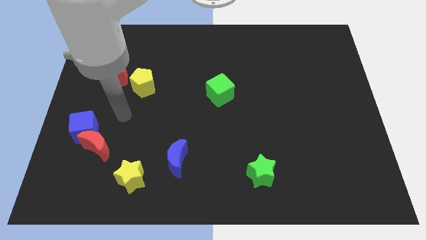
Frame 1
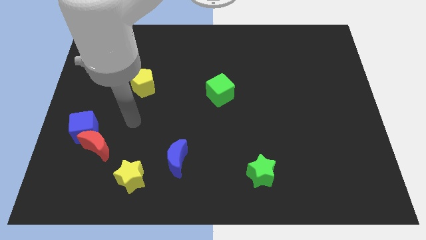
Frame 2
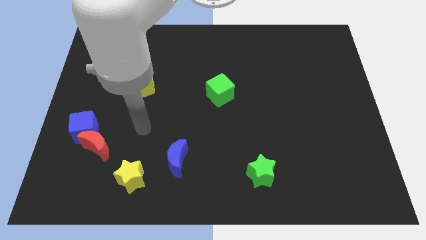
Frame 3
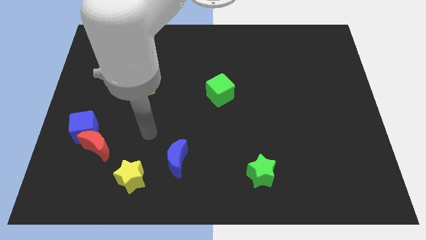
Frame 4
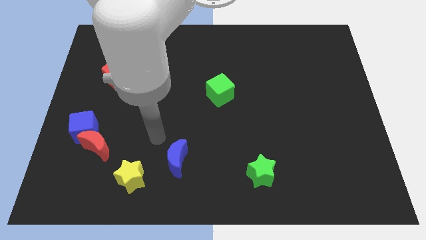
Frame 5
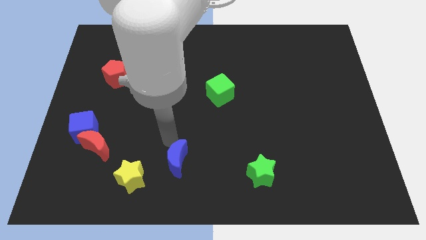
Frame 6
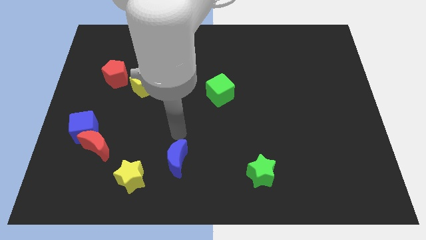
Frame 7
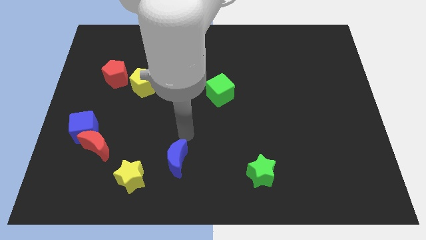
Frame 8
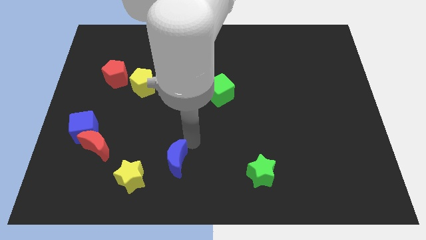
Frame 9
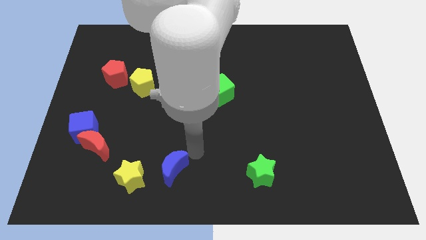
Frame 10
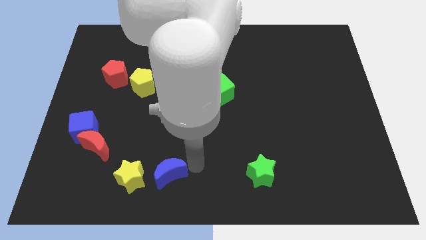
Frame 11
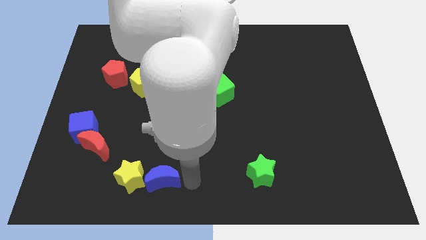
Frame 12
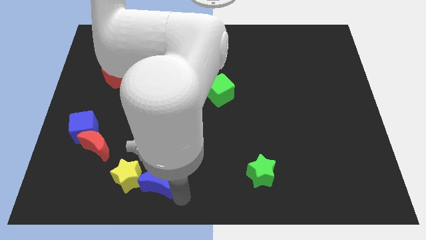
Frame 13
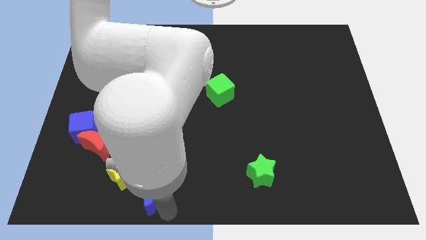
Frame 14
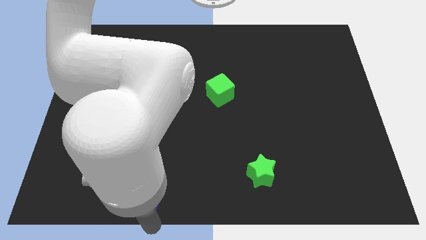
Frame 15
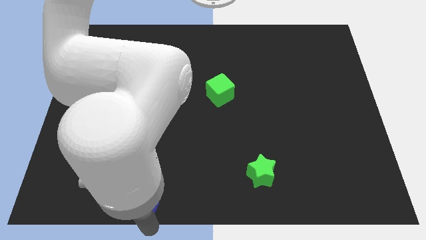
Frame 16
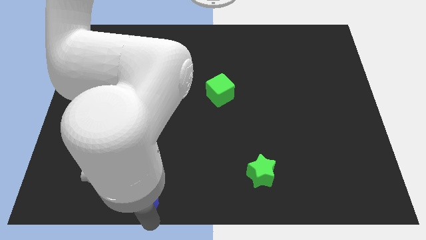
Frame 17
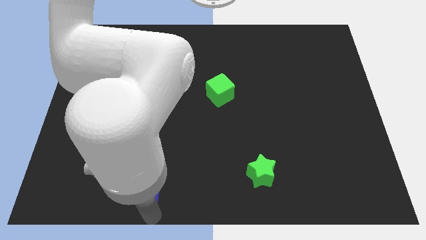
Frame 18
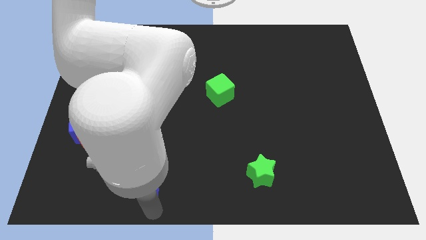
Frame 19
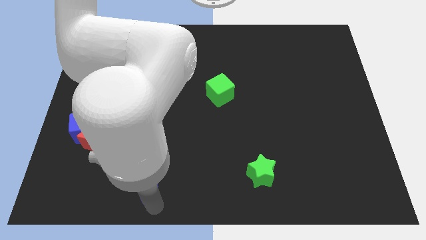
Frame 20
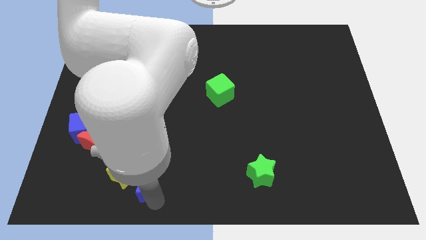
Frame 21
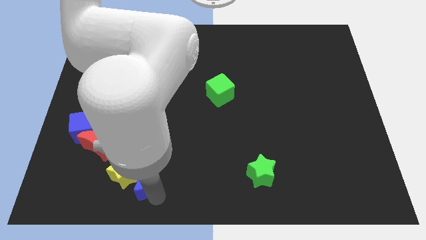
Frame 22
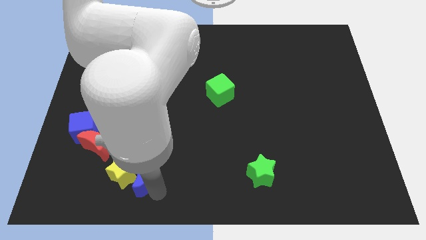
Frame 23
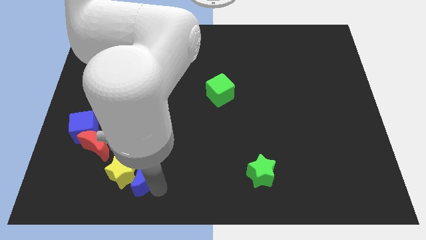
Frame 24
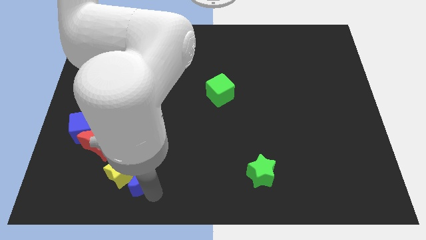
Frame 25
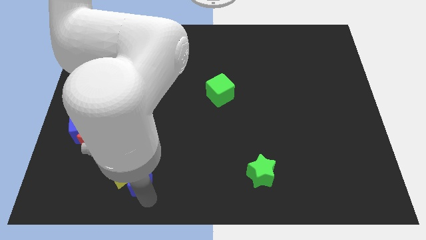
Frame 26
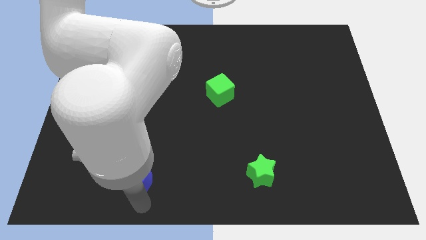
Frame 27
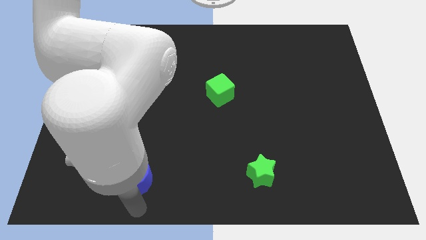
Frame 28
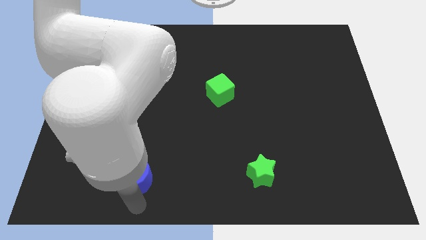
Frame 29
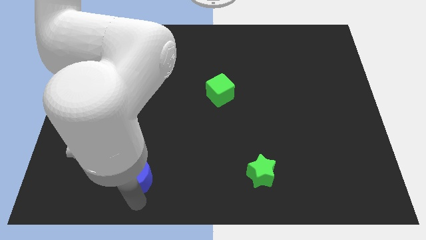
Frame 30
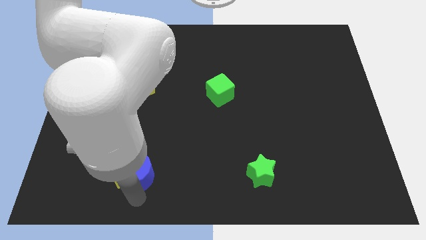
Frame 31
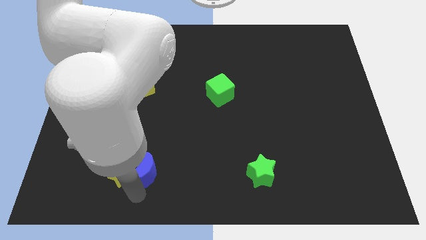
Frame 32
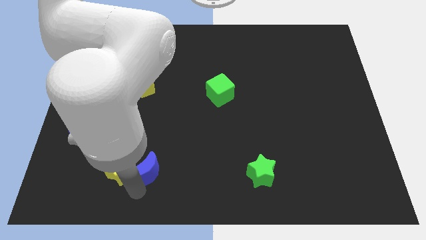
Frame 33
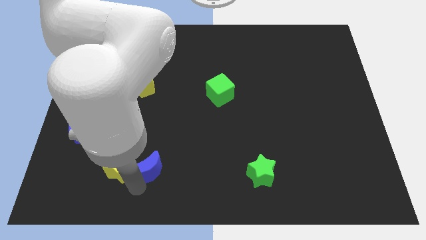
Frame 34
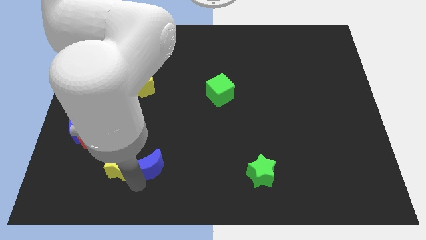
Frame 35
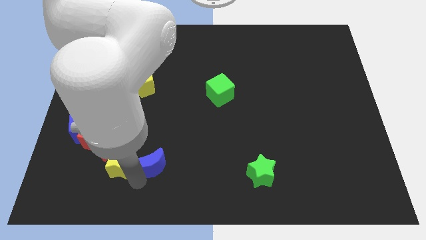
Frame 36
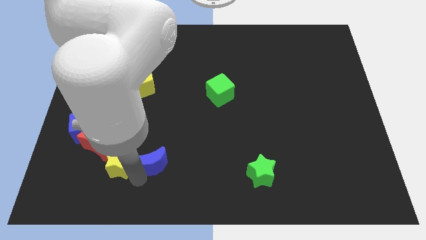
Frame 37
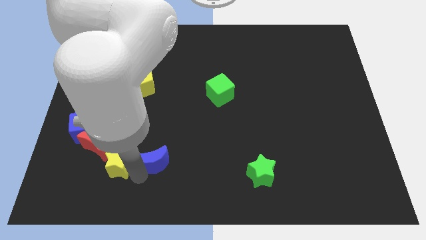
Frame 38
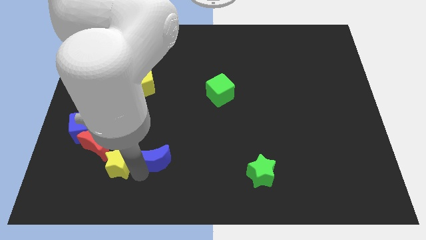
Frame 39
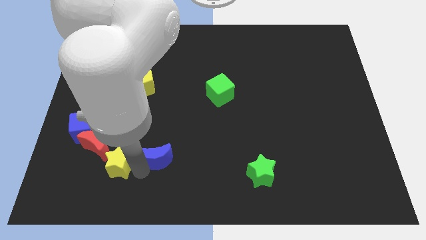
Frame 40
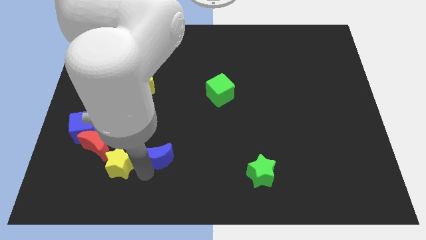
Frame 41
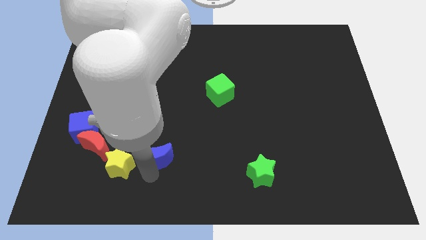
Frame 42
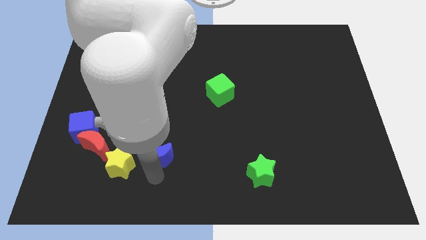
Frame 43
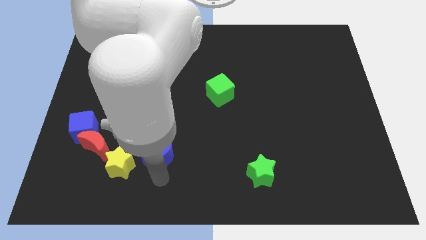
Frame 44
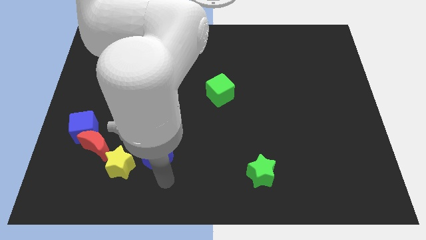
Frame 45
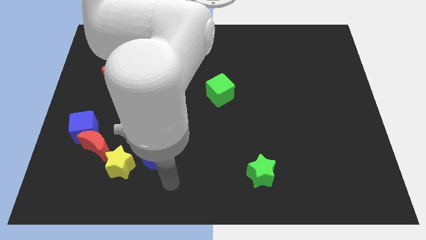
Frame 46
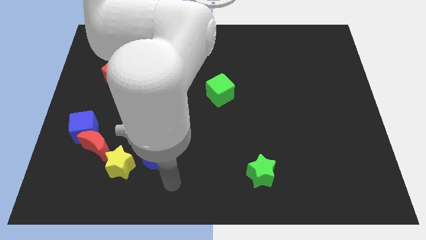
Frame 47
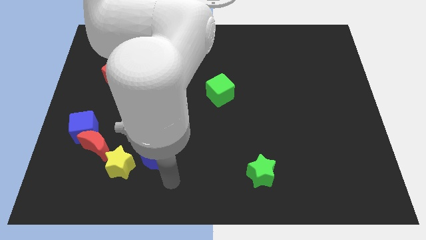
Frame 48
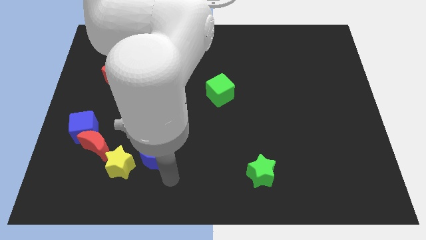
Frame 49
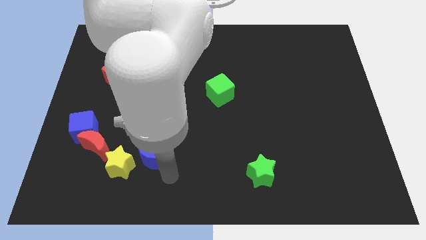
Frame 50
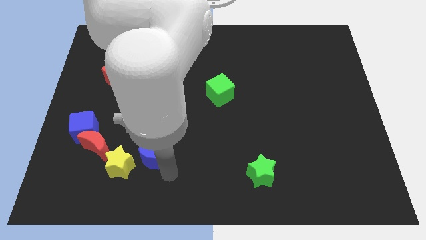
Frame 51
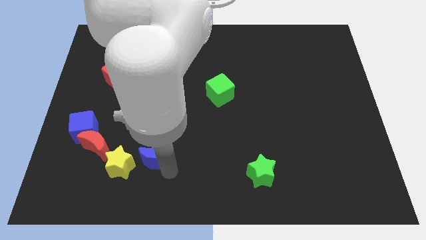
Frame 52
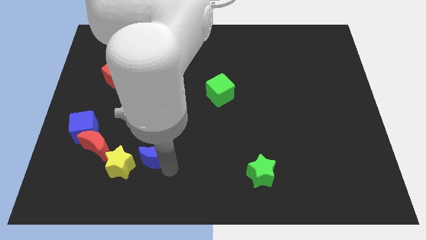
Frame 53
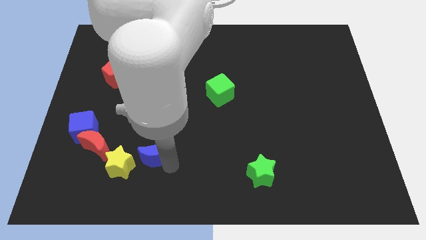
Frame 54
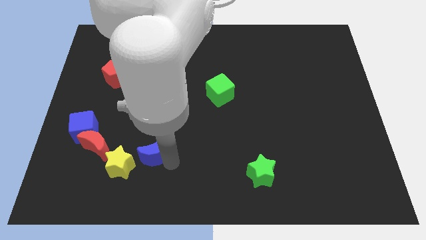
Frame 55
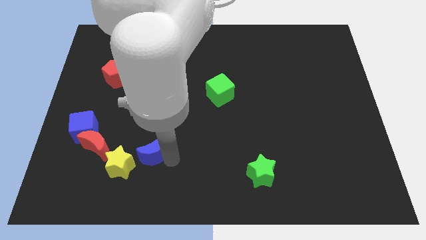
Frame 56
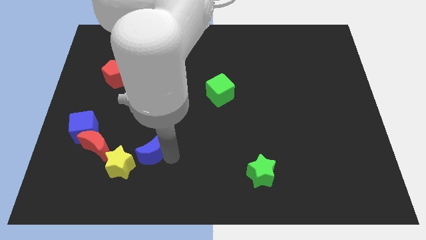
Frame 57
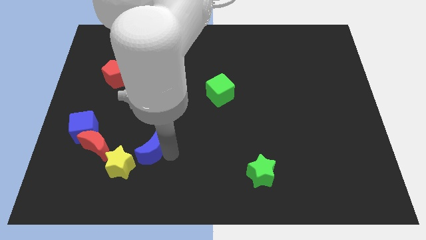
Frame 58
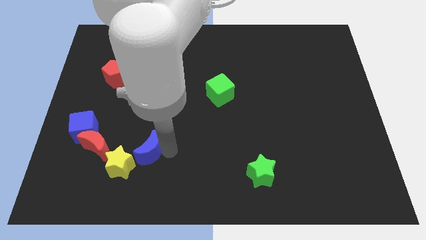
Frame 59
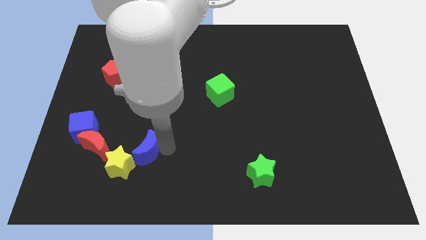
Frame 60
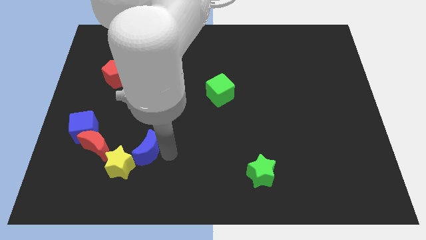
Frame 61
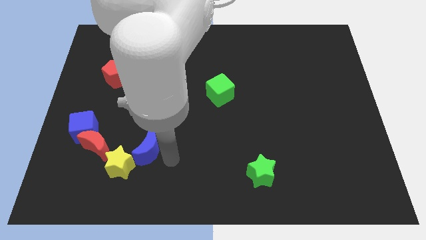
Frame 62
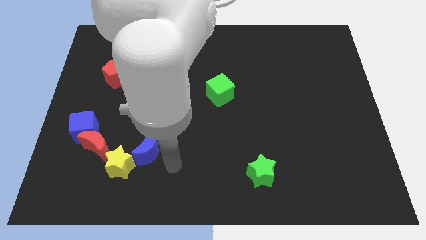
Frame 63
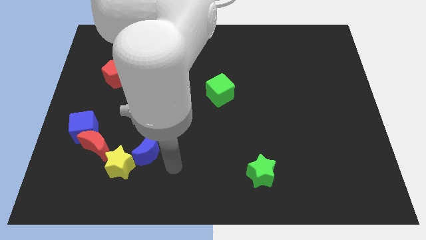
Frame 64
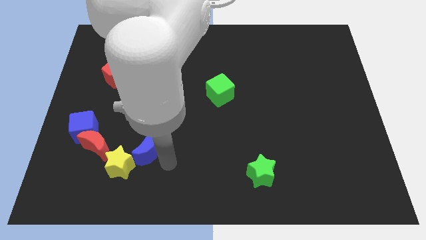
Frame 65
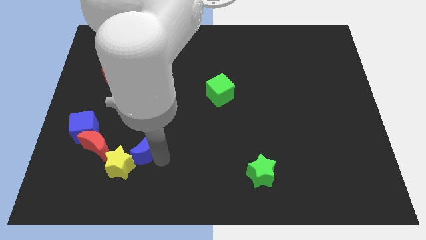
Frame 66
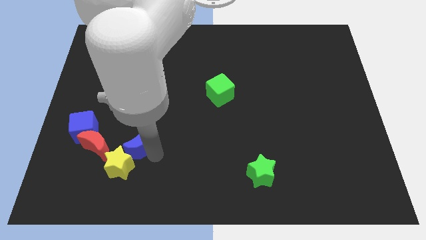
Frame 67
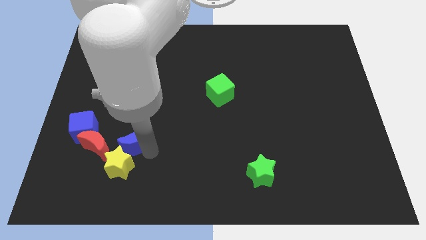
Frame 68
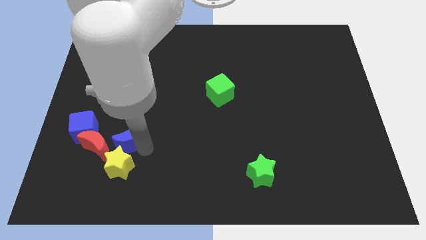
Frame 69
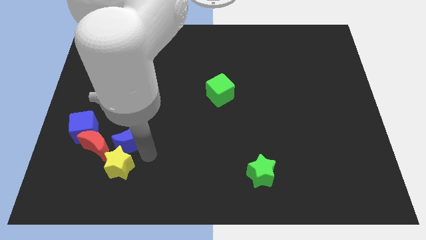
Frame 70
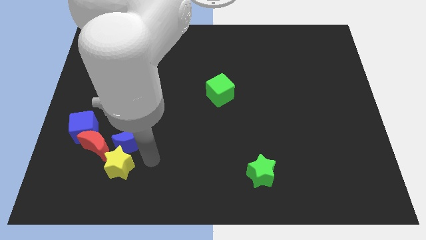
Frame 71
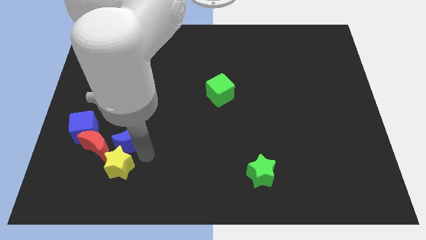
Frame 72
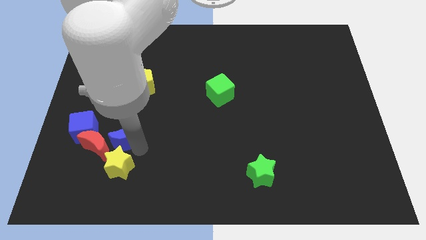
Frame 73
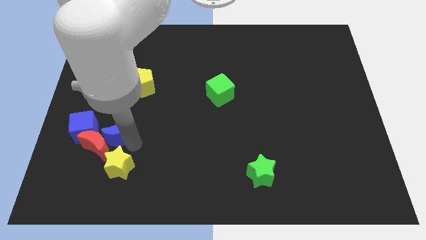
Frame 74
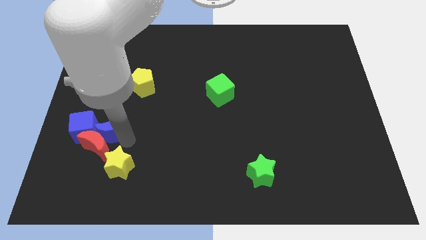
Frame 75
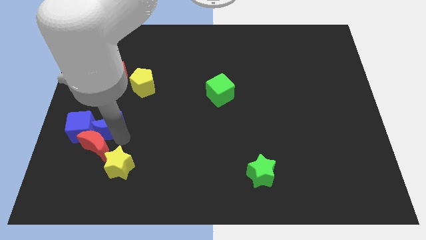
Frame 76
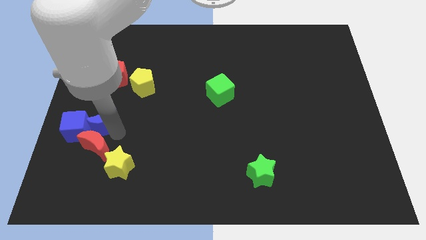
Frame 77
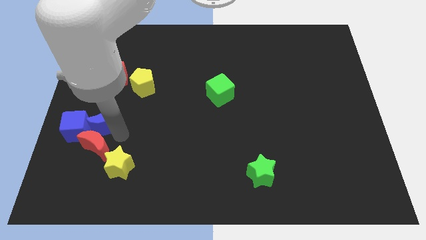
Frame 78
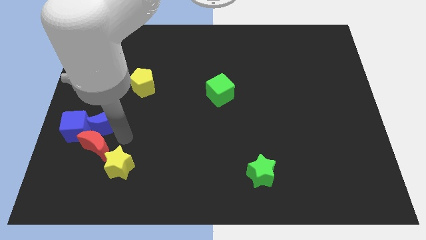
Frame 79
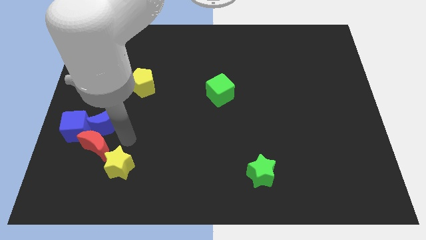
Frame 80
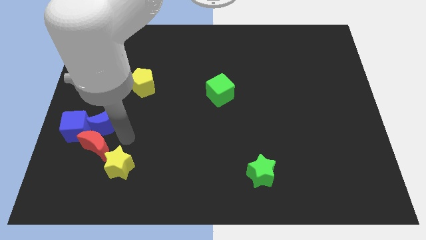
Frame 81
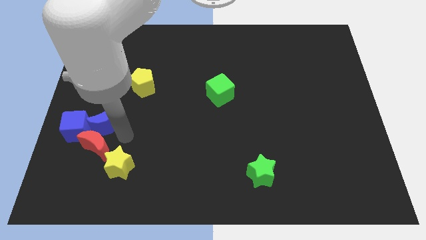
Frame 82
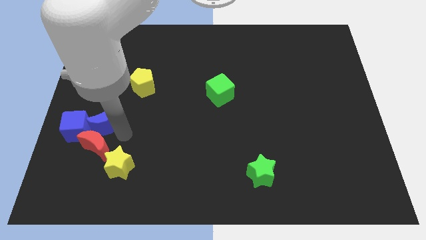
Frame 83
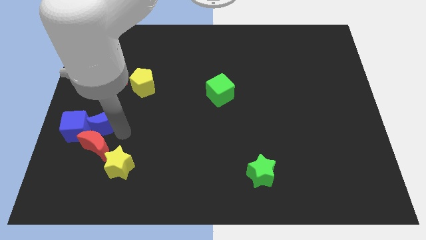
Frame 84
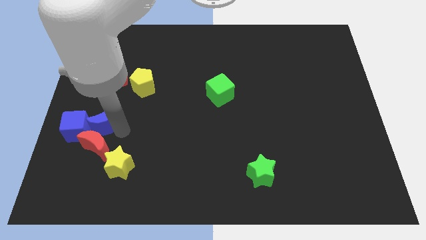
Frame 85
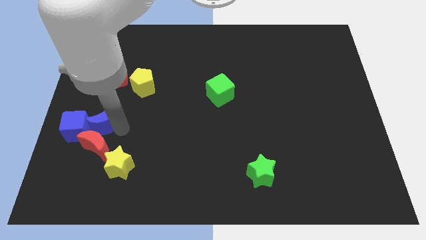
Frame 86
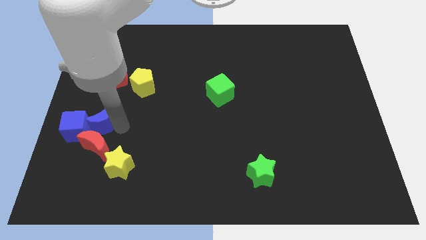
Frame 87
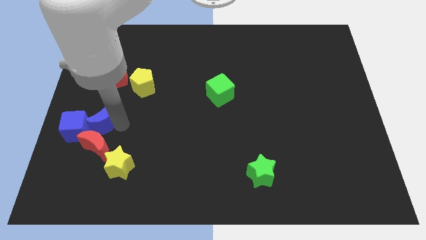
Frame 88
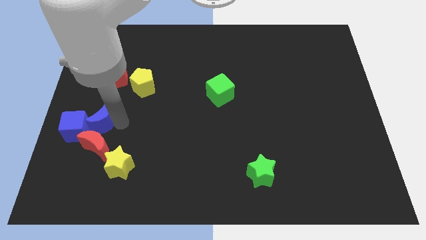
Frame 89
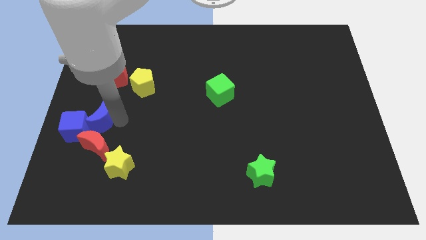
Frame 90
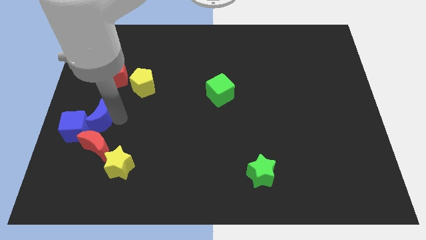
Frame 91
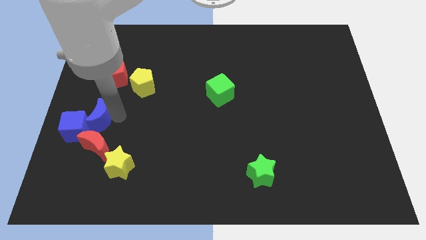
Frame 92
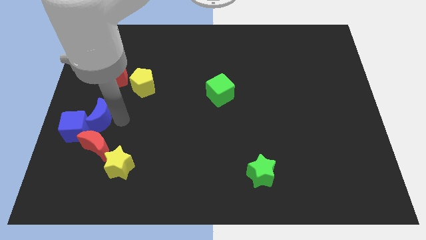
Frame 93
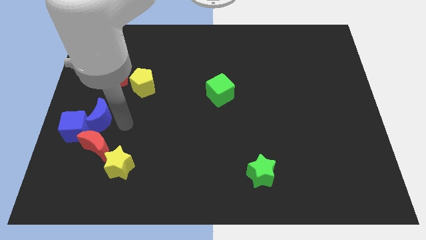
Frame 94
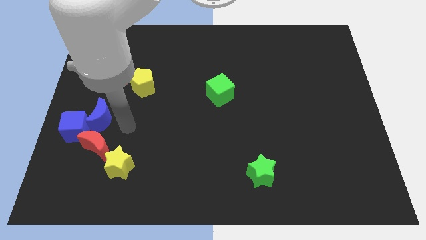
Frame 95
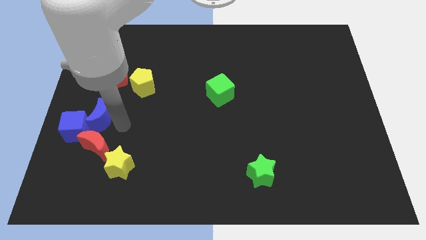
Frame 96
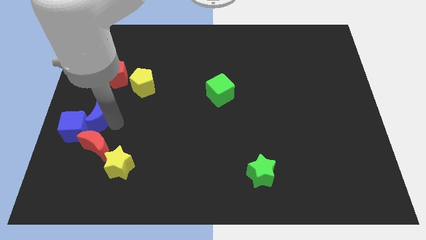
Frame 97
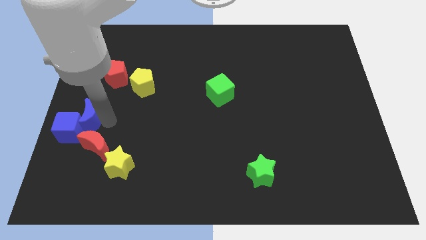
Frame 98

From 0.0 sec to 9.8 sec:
push the blue moon to the left side of the board
